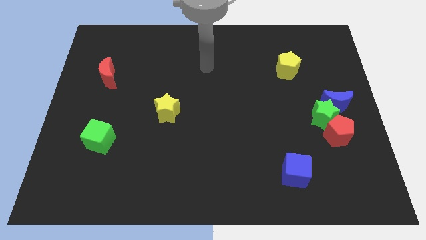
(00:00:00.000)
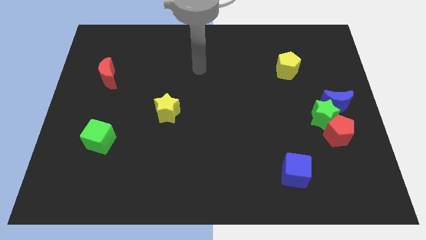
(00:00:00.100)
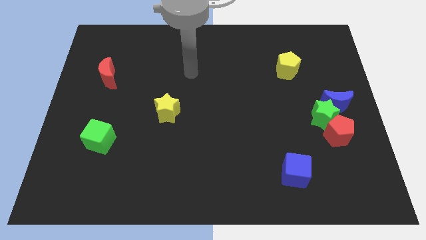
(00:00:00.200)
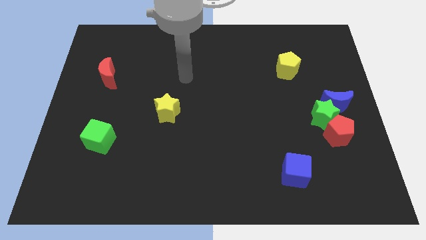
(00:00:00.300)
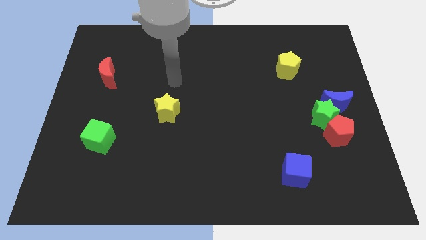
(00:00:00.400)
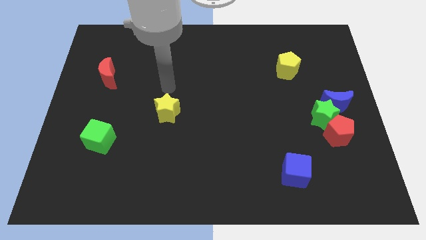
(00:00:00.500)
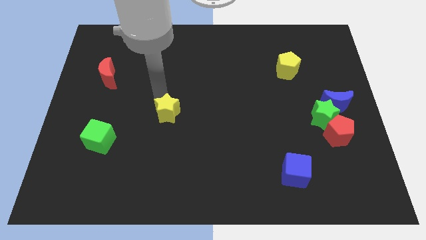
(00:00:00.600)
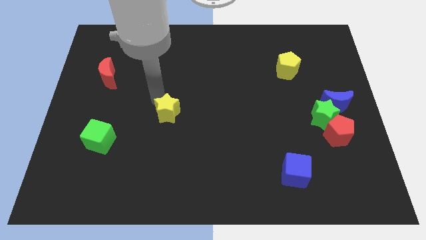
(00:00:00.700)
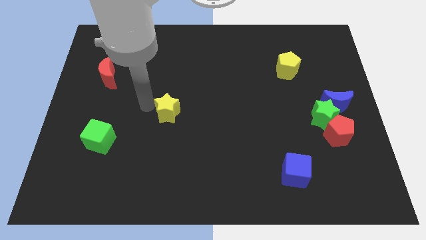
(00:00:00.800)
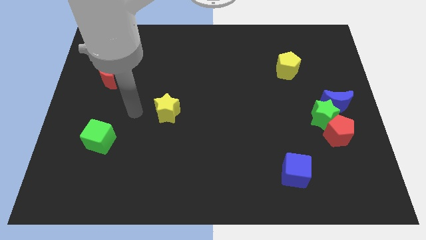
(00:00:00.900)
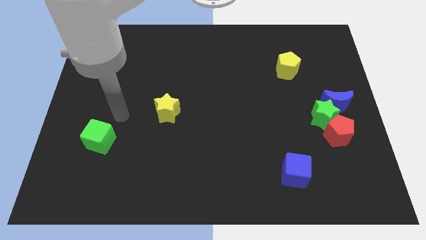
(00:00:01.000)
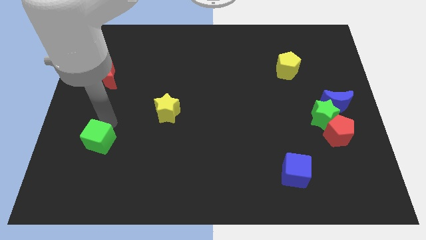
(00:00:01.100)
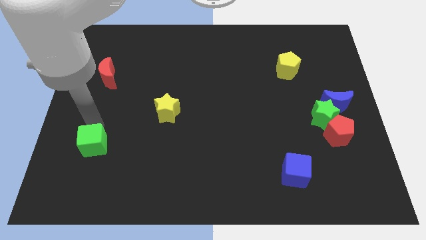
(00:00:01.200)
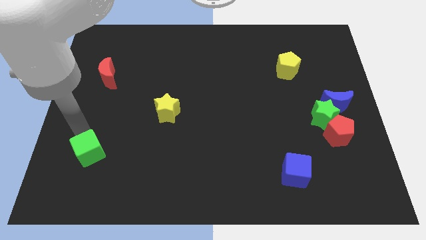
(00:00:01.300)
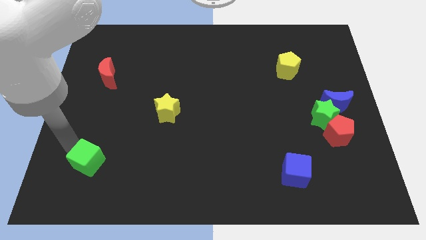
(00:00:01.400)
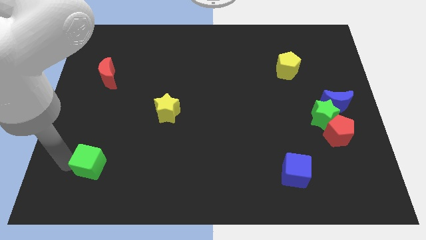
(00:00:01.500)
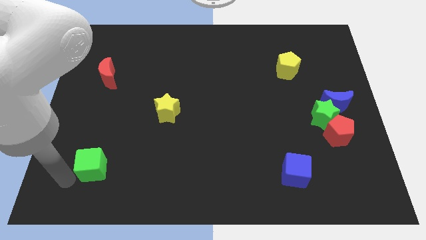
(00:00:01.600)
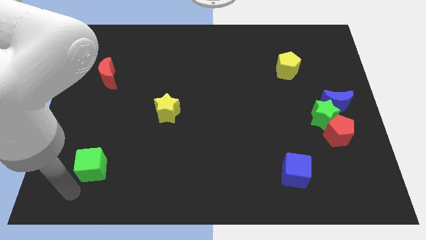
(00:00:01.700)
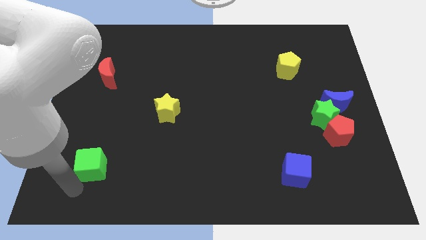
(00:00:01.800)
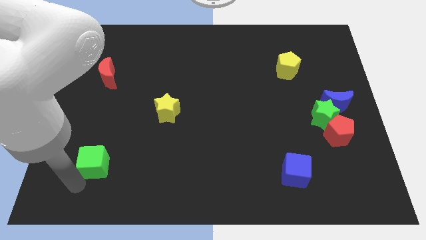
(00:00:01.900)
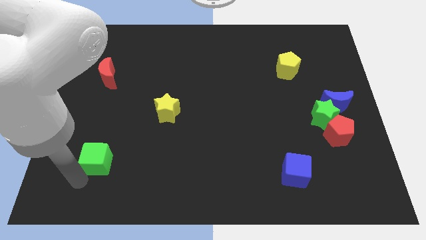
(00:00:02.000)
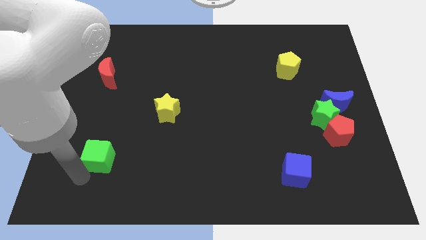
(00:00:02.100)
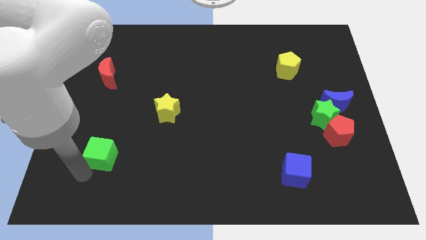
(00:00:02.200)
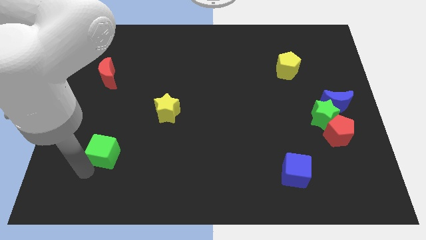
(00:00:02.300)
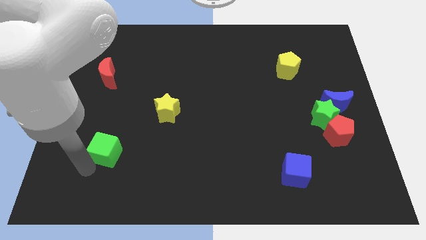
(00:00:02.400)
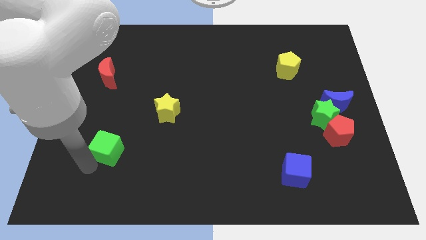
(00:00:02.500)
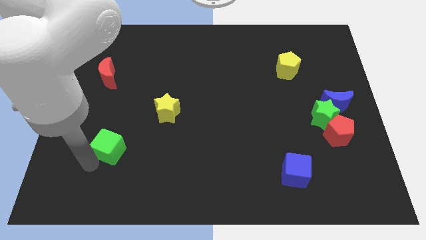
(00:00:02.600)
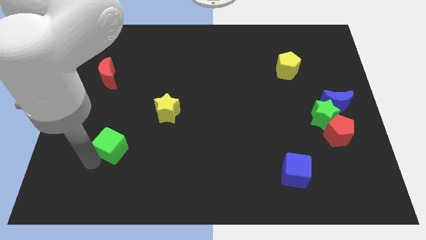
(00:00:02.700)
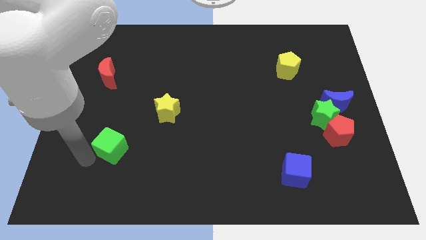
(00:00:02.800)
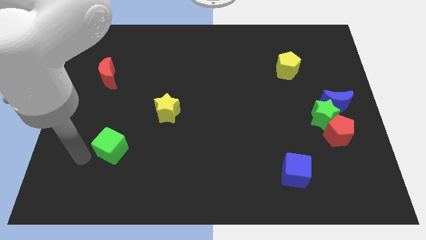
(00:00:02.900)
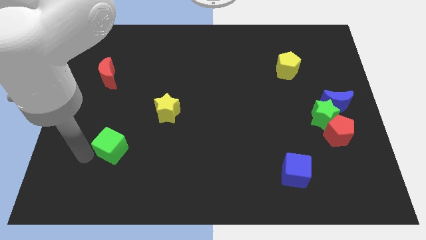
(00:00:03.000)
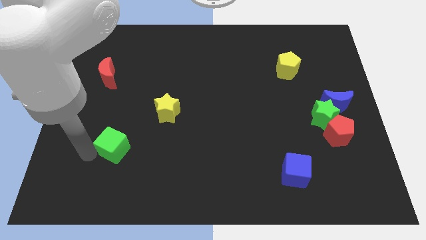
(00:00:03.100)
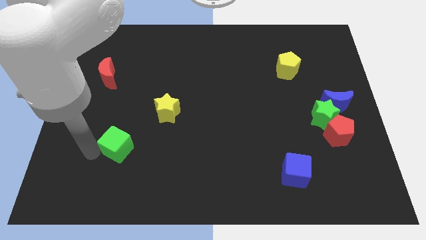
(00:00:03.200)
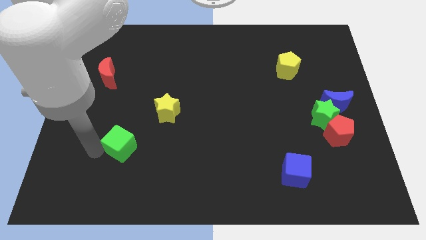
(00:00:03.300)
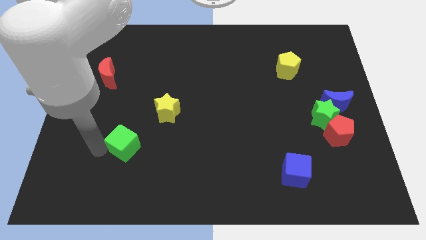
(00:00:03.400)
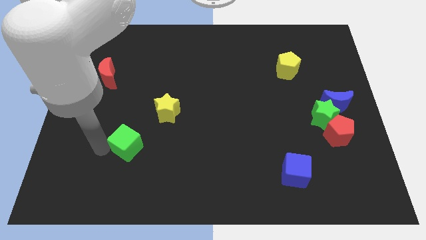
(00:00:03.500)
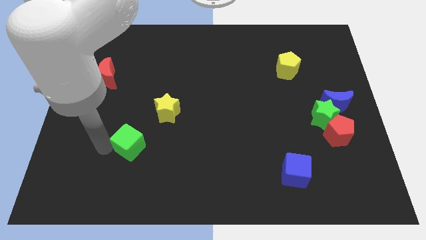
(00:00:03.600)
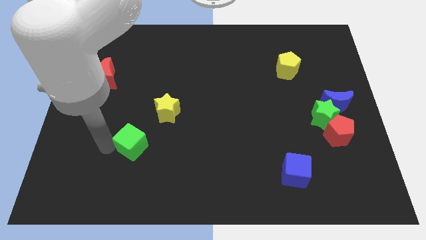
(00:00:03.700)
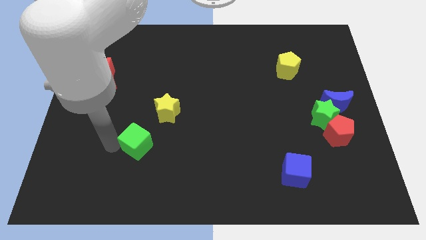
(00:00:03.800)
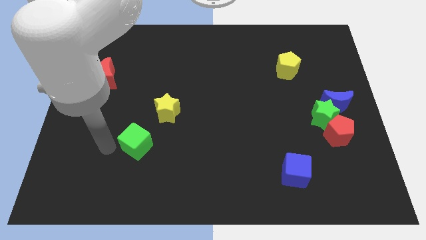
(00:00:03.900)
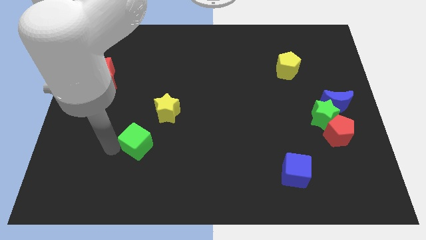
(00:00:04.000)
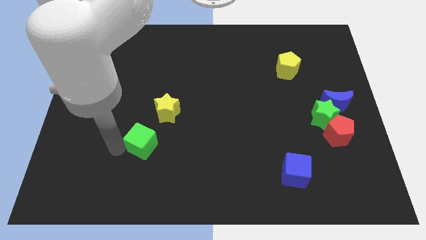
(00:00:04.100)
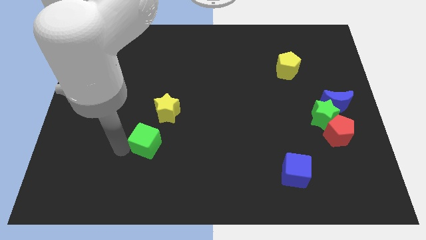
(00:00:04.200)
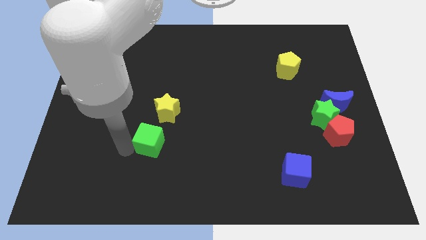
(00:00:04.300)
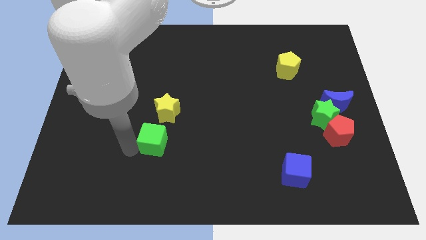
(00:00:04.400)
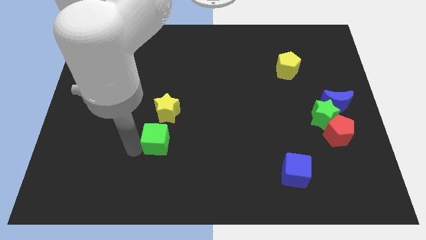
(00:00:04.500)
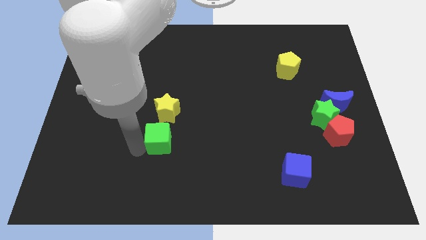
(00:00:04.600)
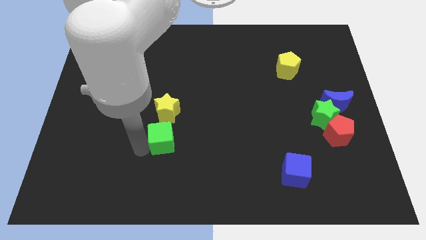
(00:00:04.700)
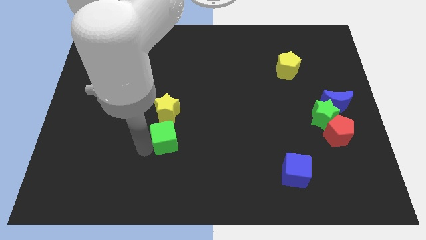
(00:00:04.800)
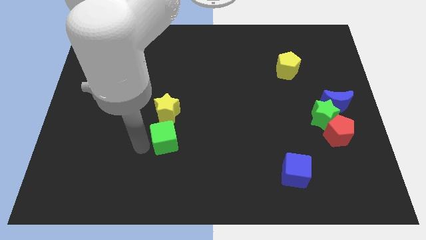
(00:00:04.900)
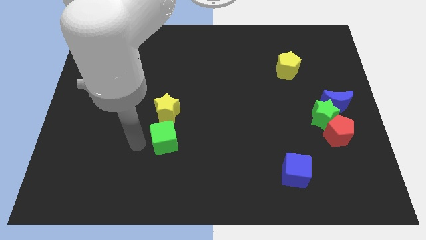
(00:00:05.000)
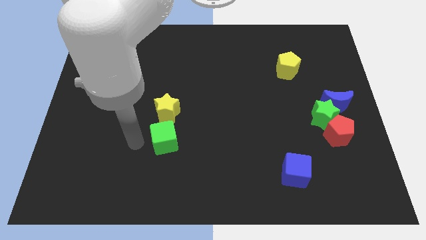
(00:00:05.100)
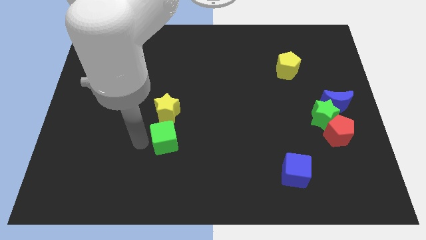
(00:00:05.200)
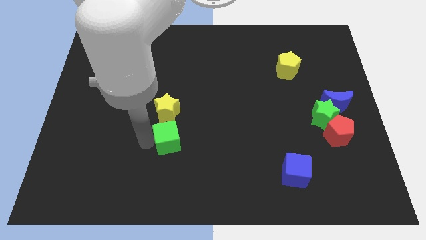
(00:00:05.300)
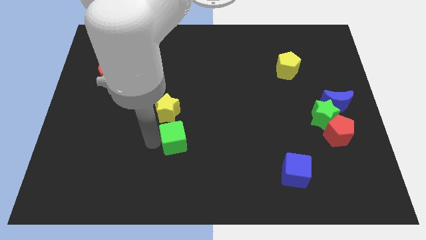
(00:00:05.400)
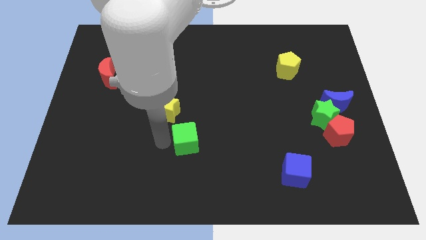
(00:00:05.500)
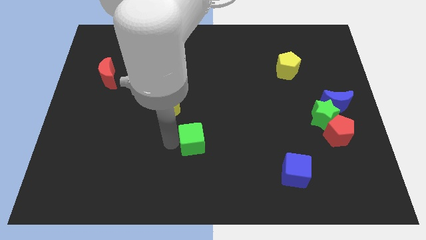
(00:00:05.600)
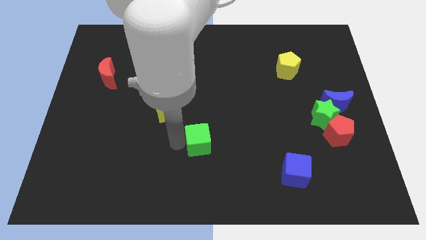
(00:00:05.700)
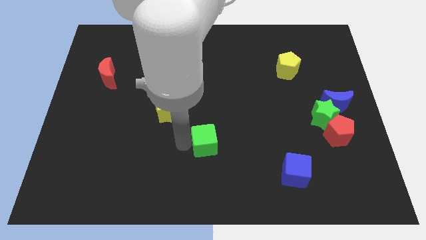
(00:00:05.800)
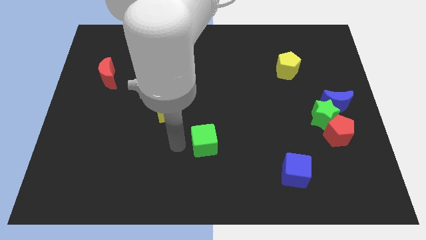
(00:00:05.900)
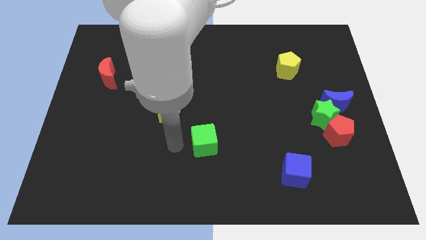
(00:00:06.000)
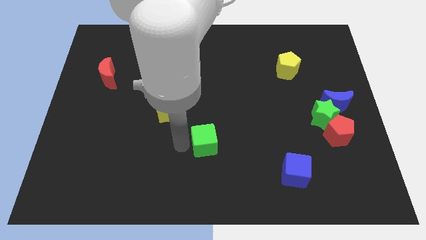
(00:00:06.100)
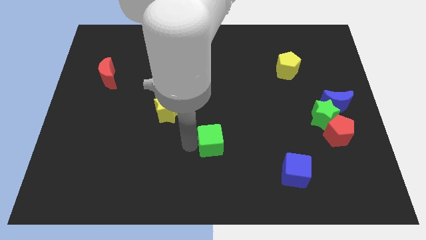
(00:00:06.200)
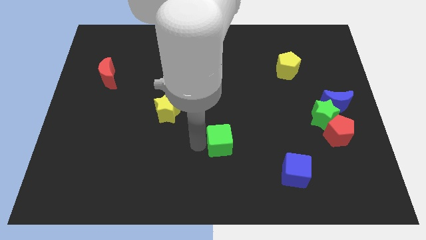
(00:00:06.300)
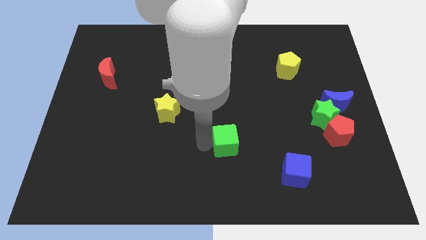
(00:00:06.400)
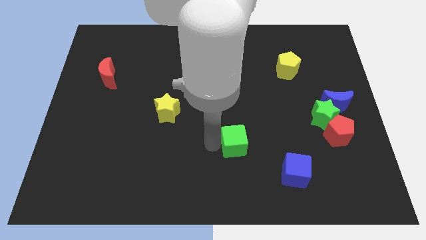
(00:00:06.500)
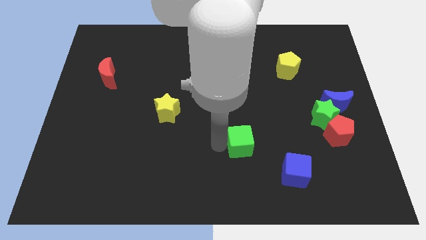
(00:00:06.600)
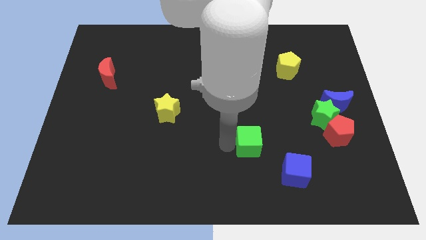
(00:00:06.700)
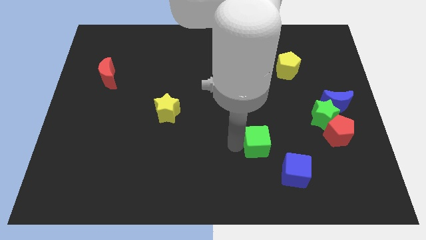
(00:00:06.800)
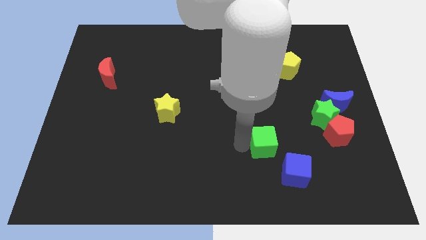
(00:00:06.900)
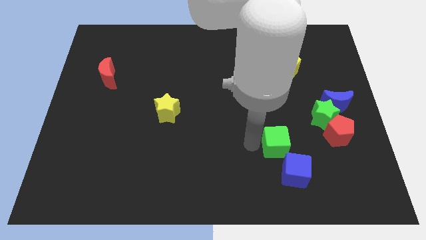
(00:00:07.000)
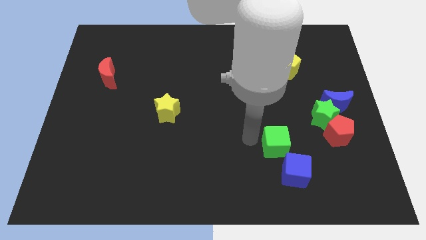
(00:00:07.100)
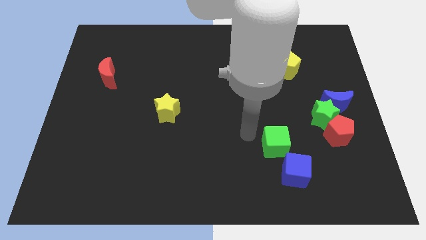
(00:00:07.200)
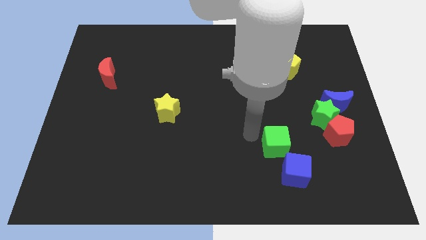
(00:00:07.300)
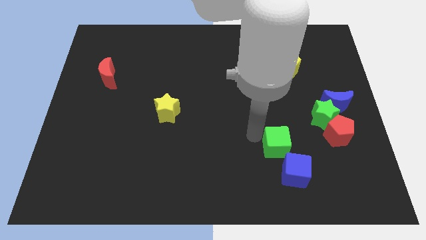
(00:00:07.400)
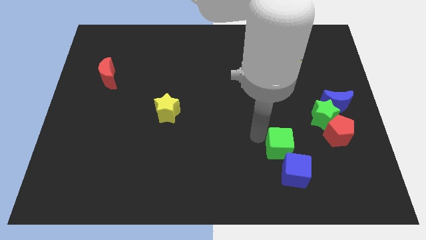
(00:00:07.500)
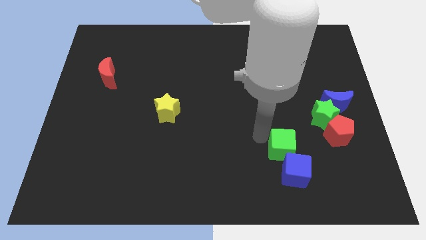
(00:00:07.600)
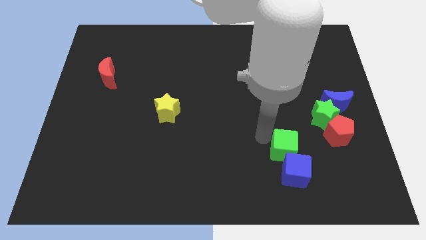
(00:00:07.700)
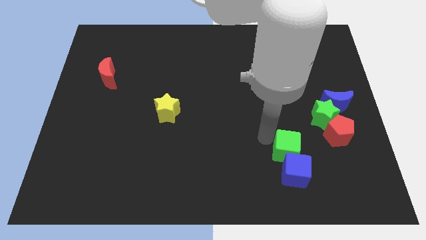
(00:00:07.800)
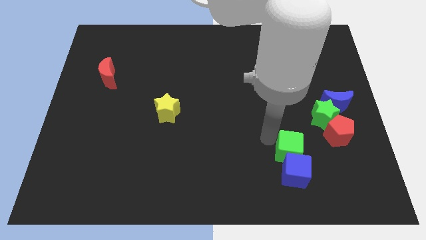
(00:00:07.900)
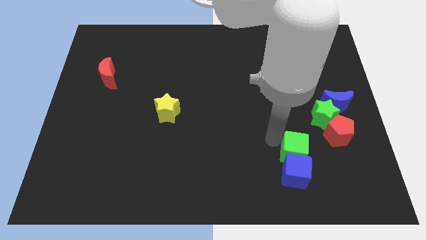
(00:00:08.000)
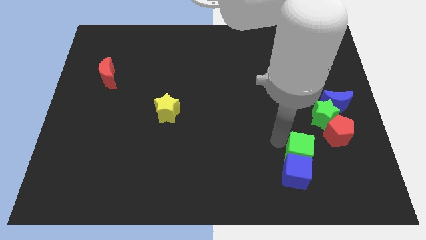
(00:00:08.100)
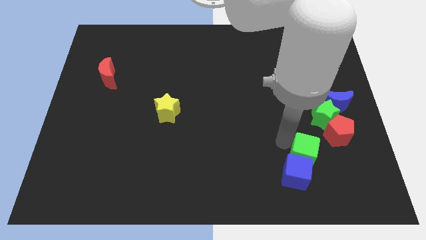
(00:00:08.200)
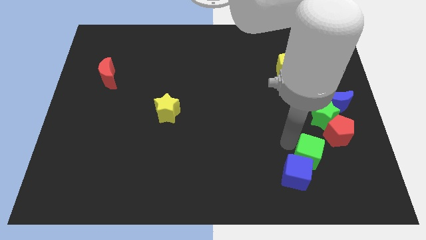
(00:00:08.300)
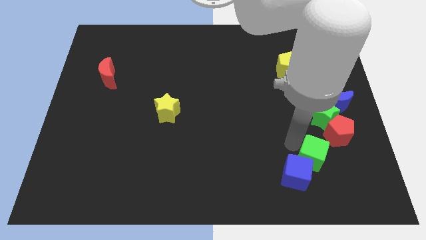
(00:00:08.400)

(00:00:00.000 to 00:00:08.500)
move the green cube to the right of the blue cube
